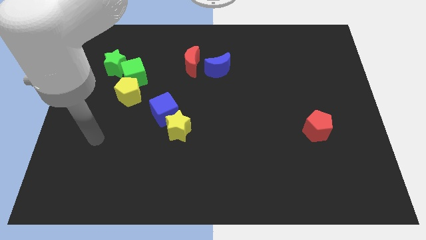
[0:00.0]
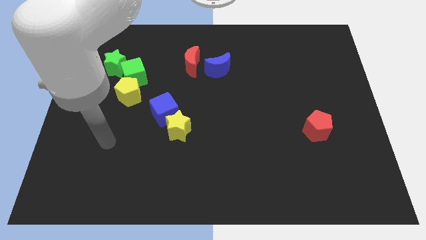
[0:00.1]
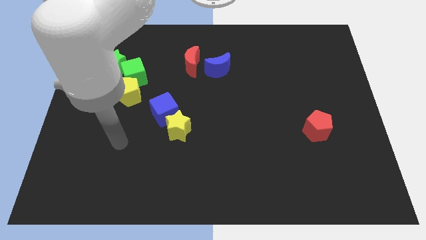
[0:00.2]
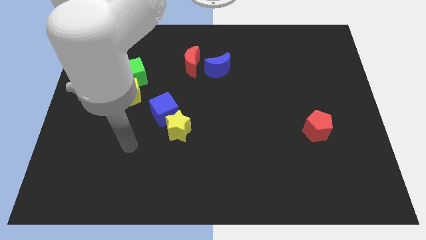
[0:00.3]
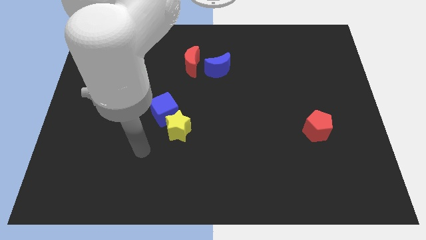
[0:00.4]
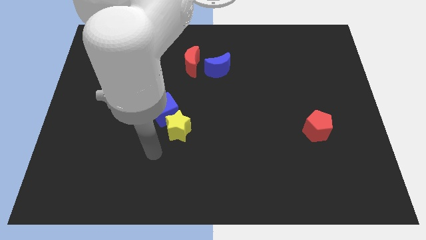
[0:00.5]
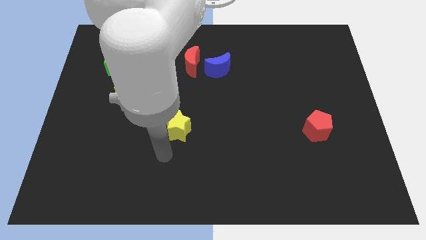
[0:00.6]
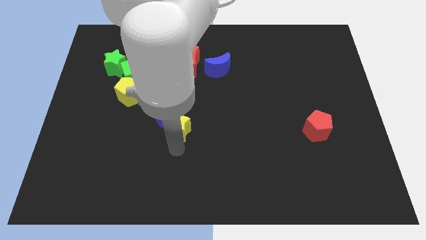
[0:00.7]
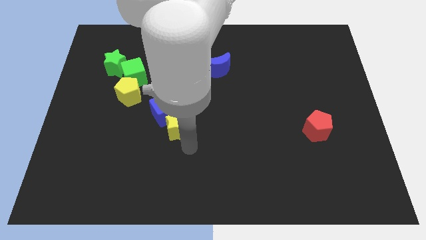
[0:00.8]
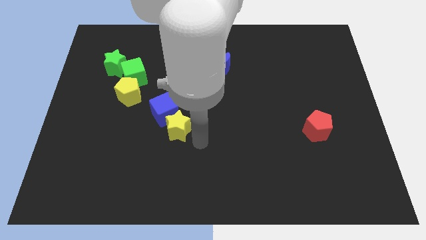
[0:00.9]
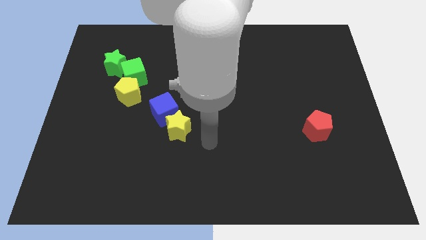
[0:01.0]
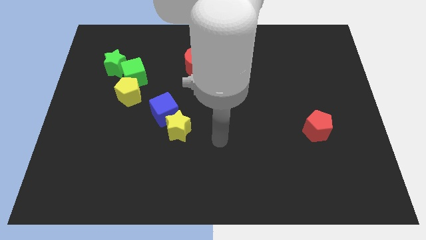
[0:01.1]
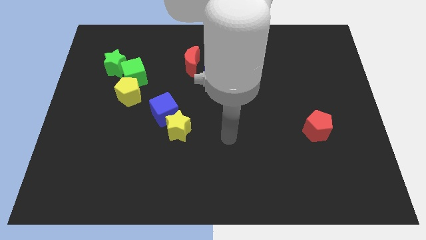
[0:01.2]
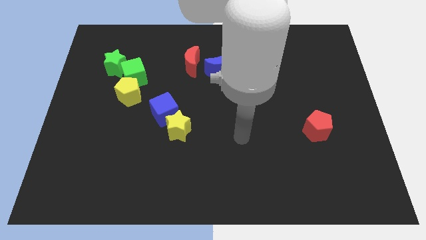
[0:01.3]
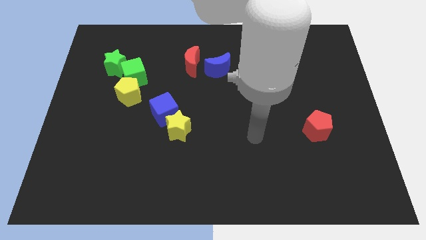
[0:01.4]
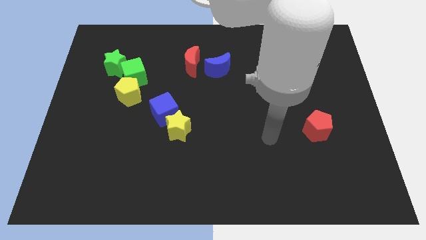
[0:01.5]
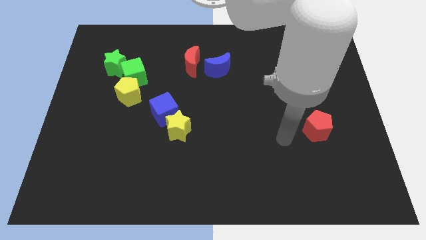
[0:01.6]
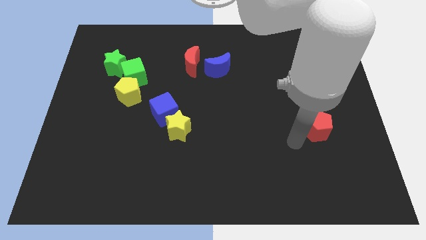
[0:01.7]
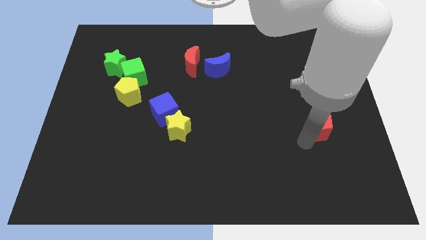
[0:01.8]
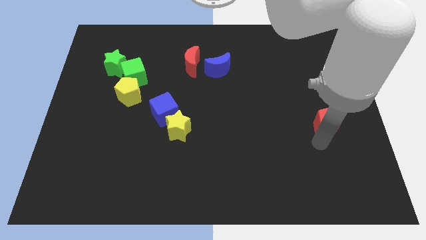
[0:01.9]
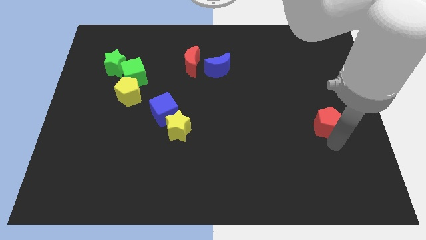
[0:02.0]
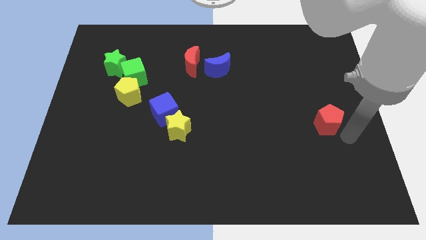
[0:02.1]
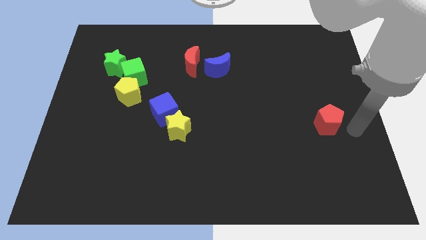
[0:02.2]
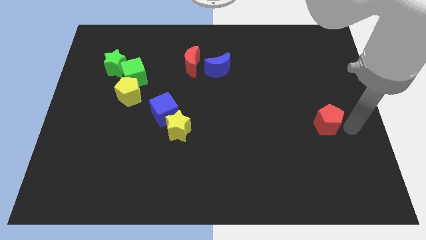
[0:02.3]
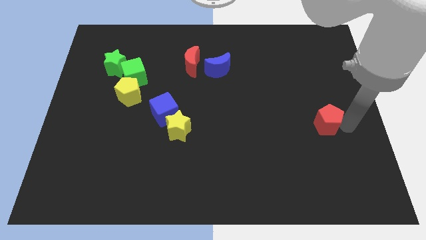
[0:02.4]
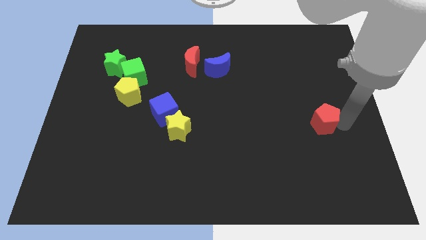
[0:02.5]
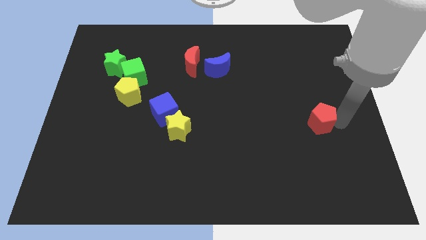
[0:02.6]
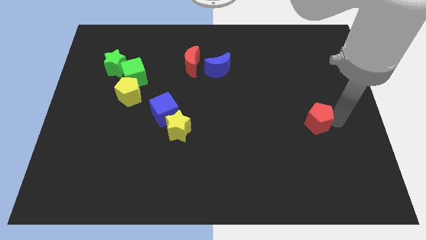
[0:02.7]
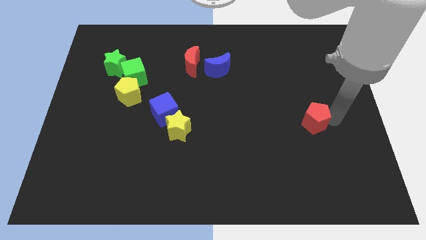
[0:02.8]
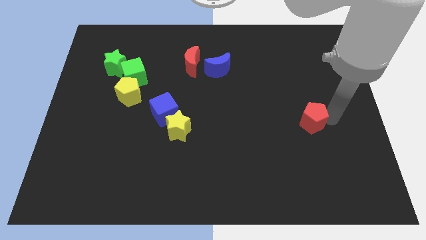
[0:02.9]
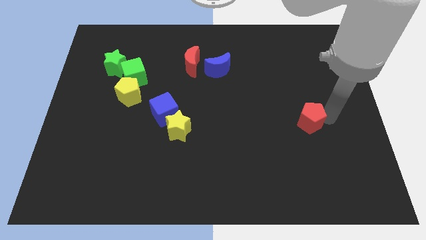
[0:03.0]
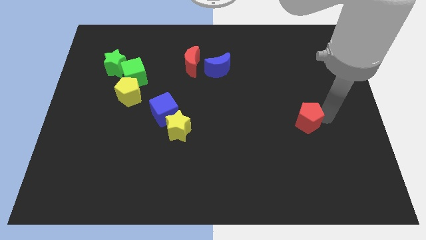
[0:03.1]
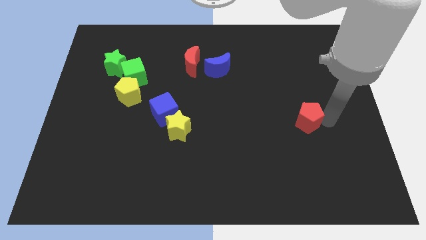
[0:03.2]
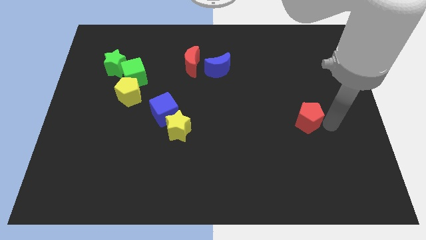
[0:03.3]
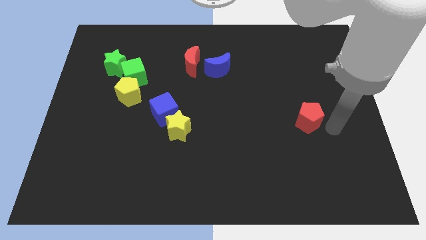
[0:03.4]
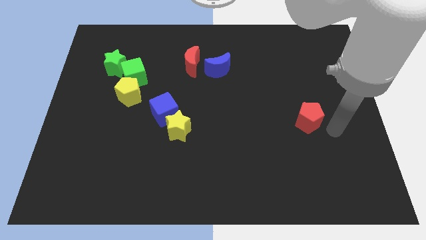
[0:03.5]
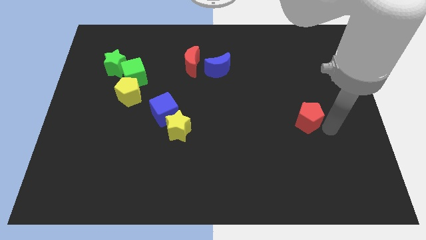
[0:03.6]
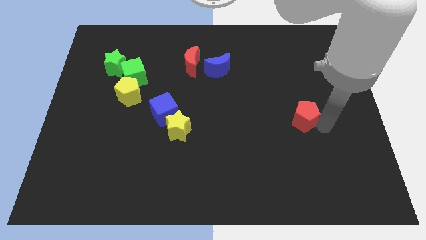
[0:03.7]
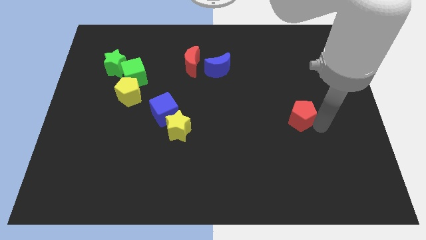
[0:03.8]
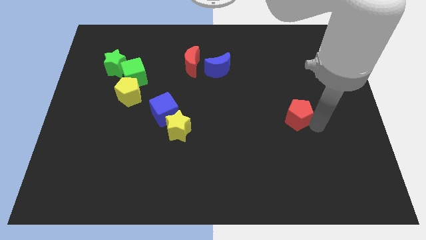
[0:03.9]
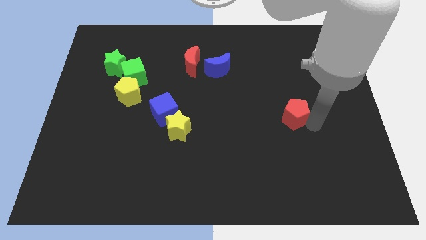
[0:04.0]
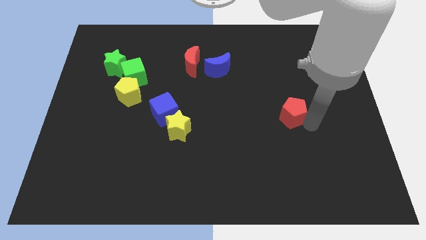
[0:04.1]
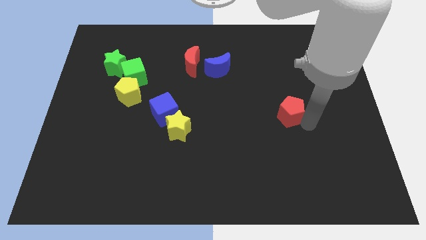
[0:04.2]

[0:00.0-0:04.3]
push the red pentagon up and left diagonally somewhat

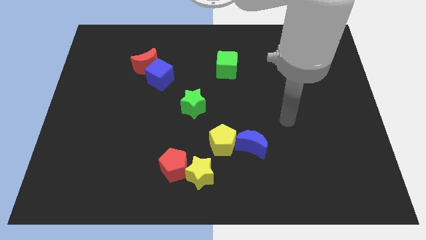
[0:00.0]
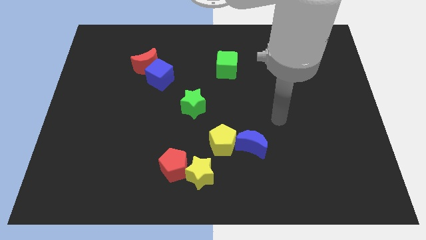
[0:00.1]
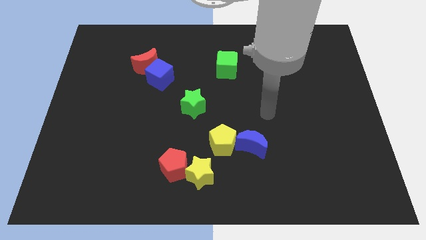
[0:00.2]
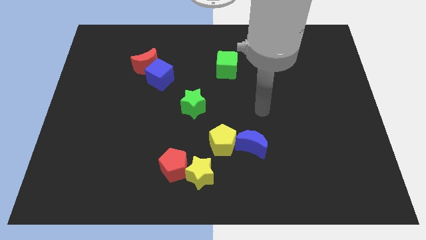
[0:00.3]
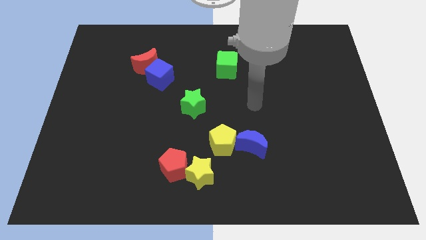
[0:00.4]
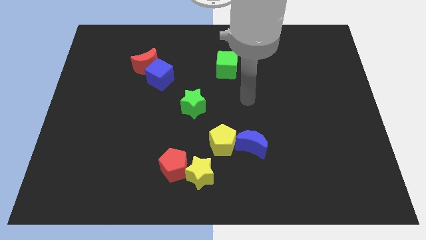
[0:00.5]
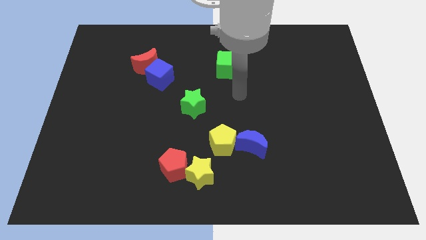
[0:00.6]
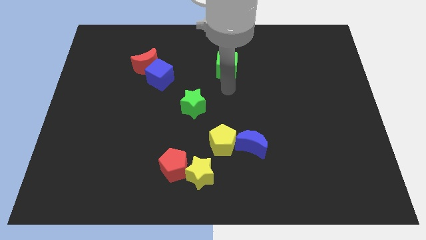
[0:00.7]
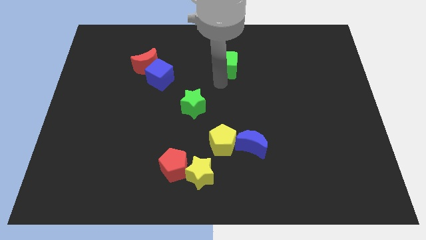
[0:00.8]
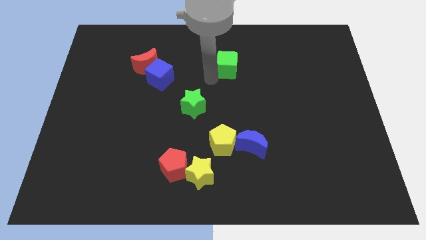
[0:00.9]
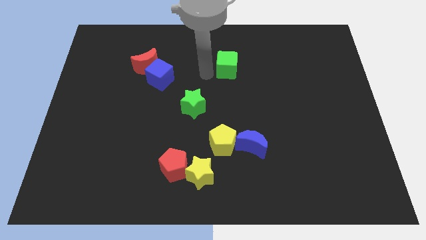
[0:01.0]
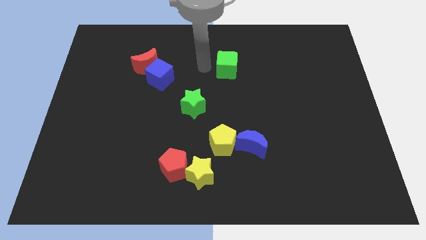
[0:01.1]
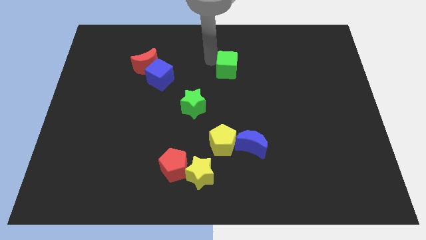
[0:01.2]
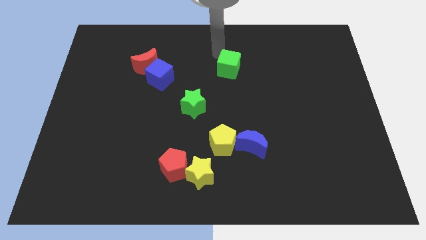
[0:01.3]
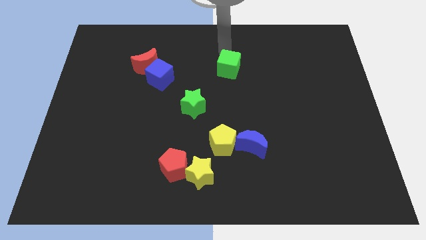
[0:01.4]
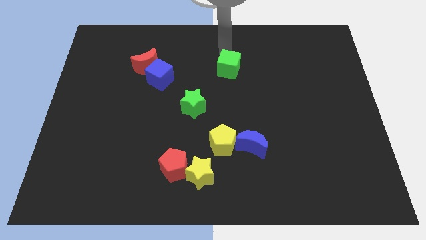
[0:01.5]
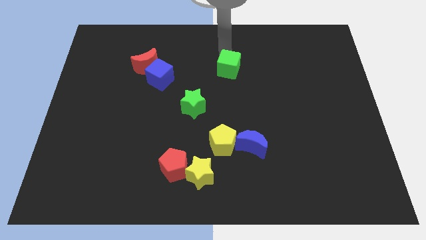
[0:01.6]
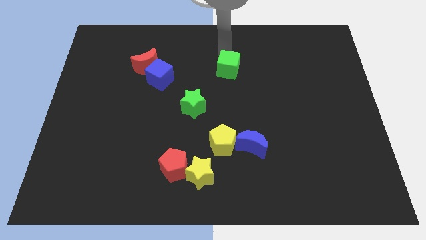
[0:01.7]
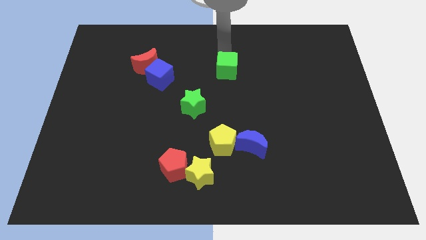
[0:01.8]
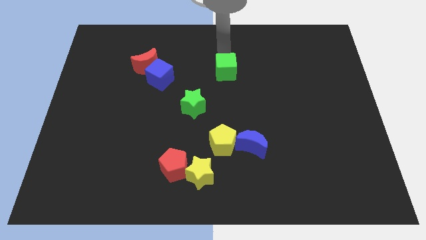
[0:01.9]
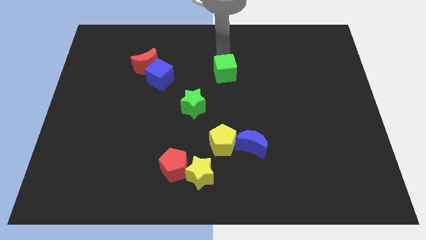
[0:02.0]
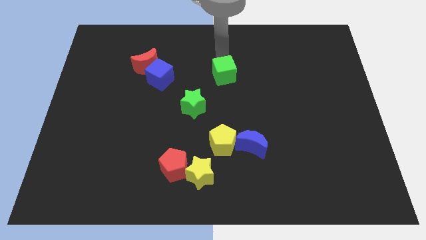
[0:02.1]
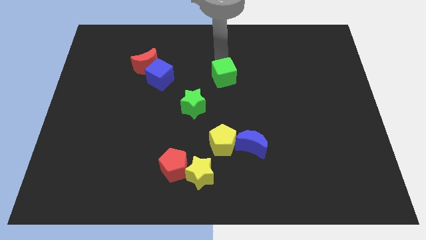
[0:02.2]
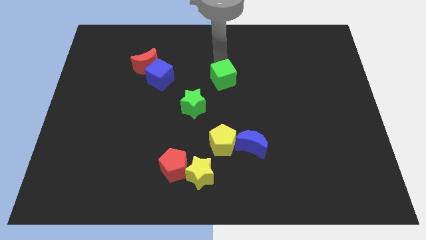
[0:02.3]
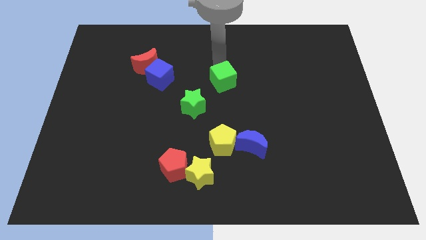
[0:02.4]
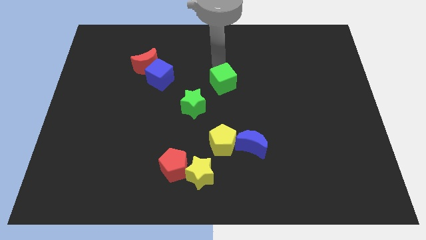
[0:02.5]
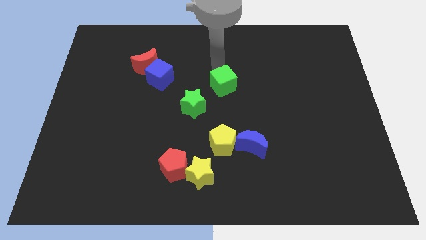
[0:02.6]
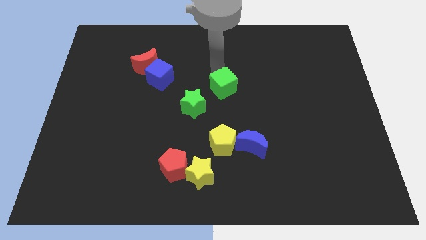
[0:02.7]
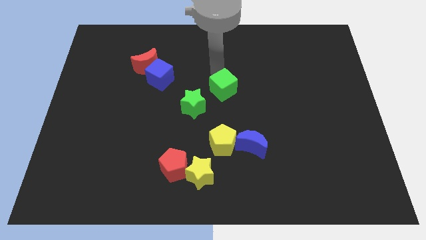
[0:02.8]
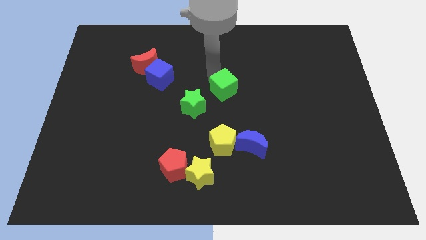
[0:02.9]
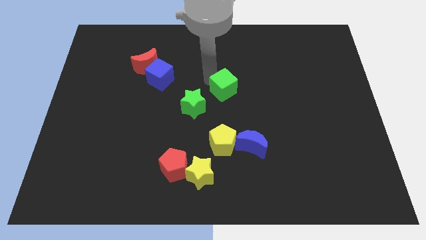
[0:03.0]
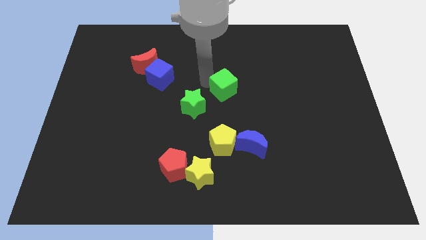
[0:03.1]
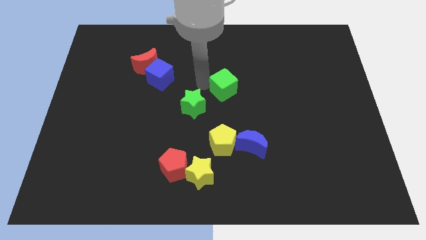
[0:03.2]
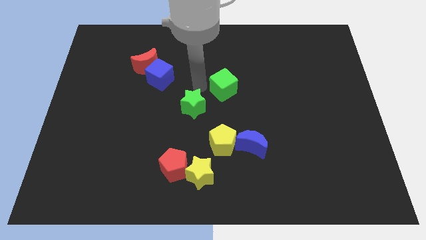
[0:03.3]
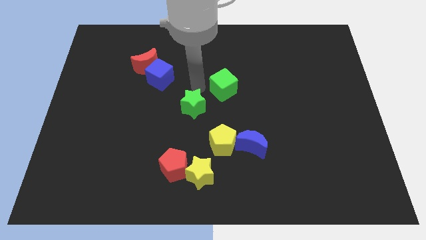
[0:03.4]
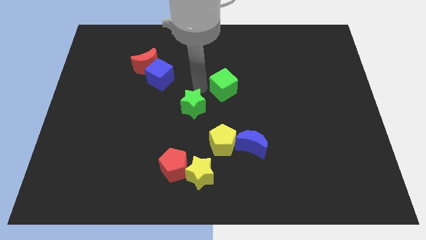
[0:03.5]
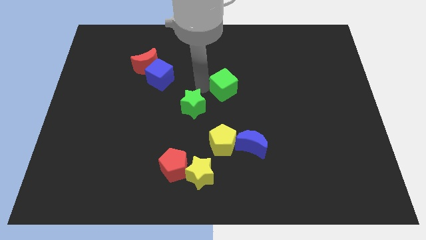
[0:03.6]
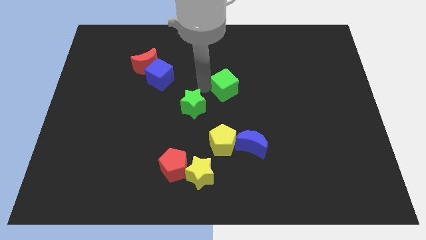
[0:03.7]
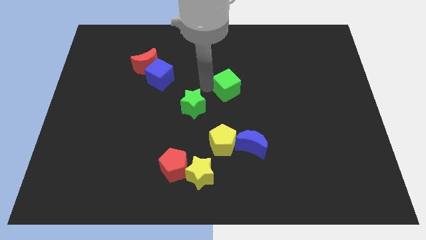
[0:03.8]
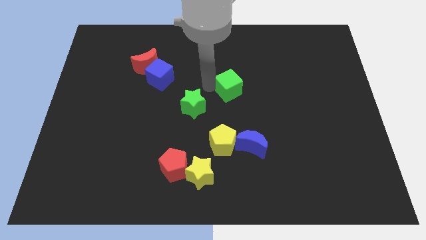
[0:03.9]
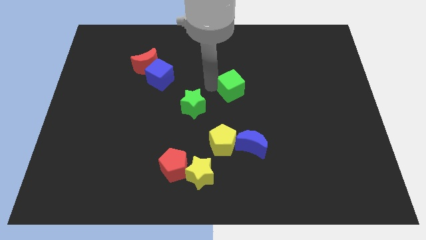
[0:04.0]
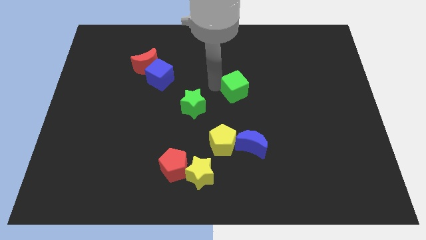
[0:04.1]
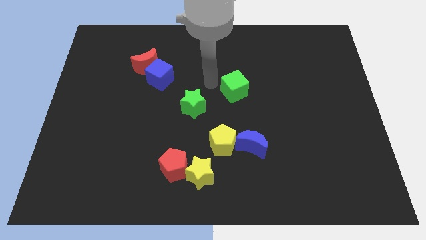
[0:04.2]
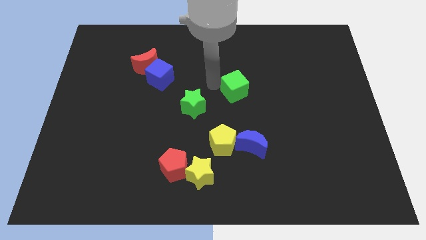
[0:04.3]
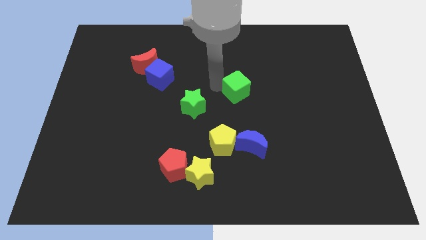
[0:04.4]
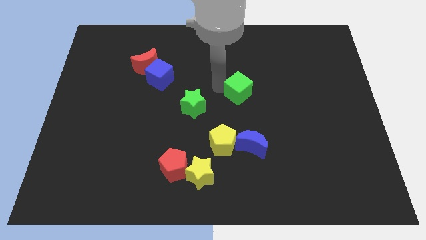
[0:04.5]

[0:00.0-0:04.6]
slightly push the green cube downwards and to the right diagonally
